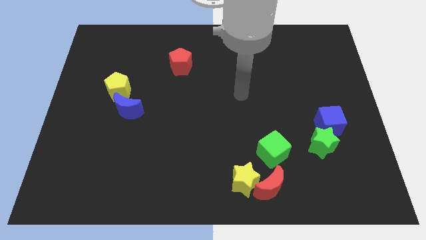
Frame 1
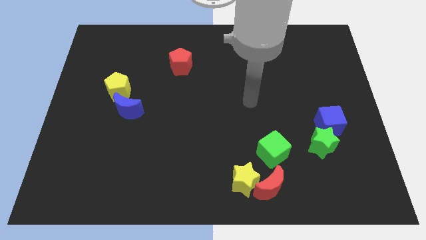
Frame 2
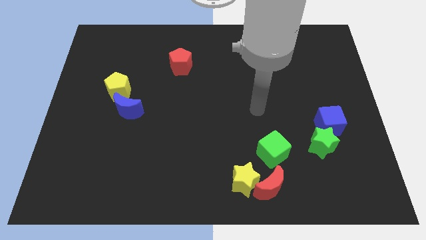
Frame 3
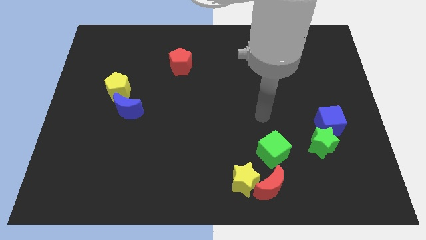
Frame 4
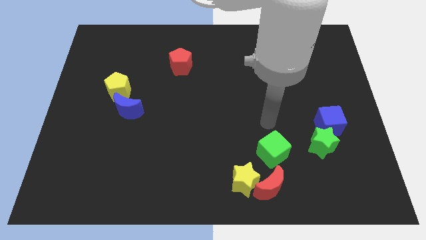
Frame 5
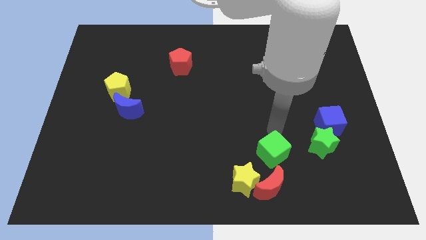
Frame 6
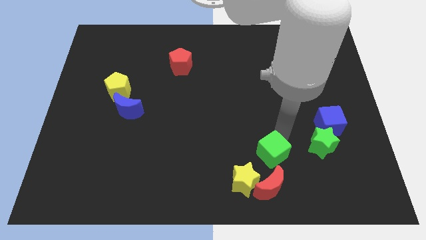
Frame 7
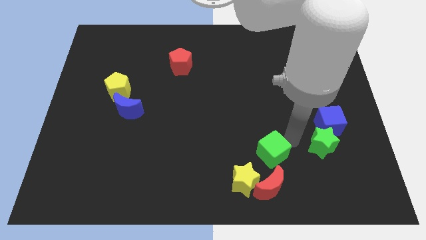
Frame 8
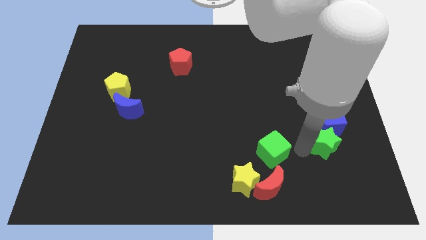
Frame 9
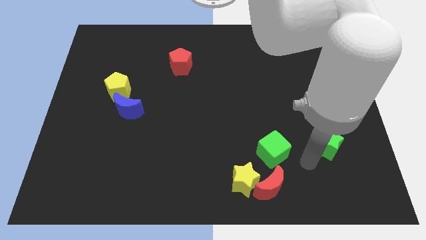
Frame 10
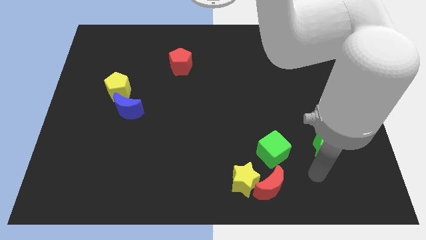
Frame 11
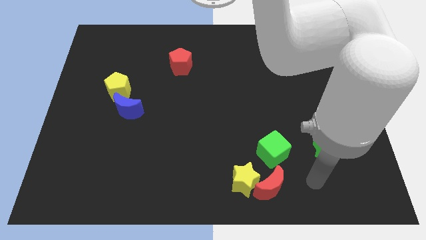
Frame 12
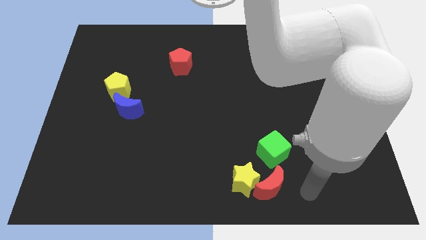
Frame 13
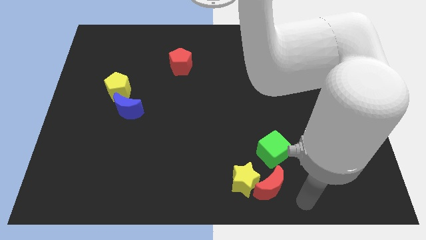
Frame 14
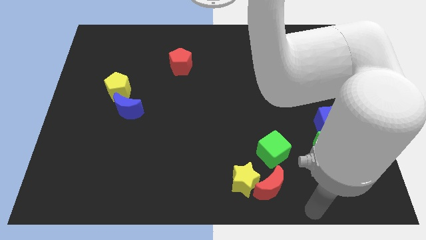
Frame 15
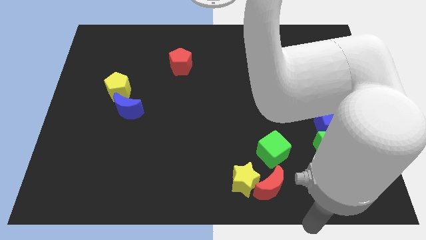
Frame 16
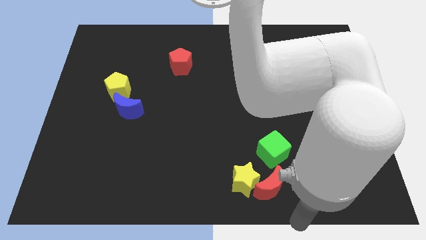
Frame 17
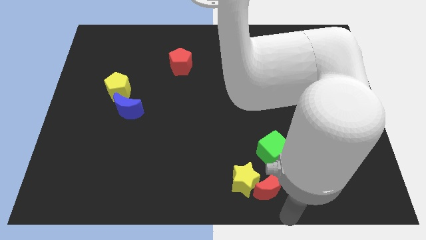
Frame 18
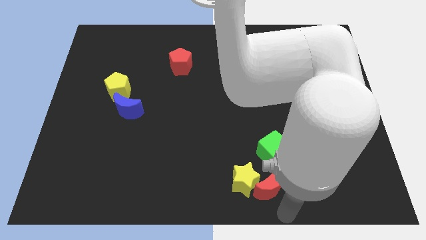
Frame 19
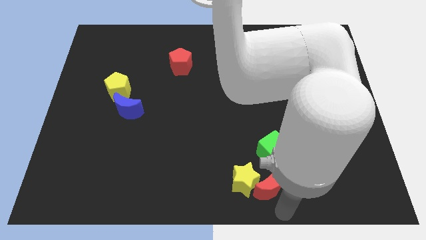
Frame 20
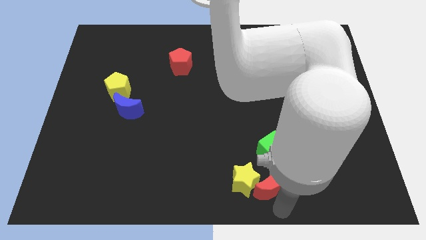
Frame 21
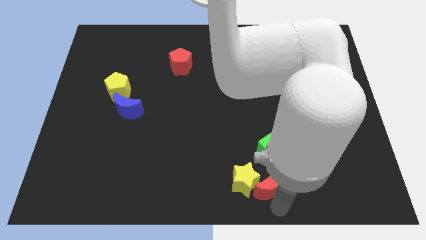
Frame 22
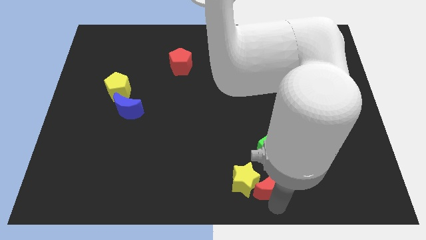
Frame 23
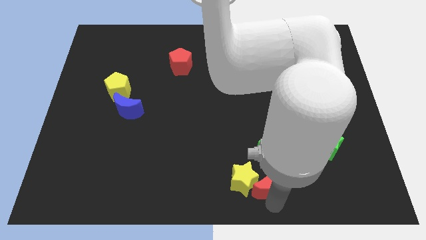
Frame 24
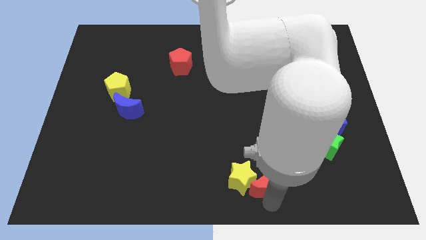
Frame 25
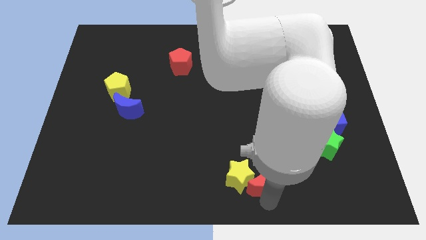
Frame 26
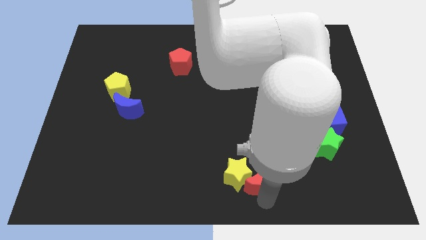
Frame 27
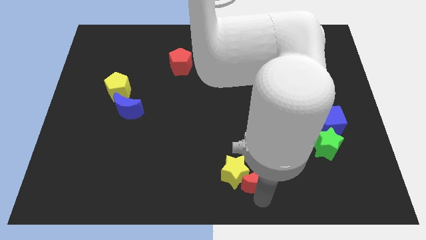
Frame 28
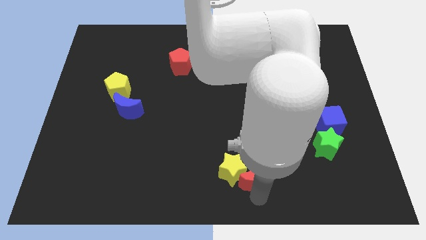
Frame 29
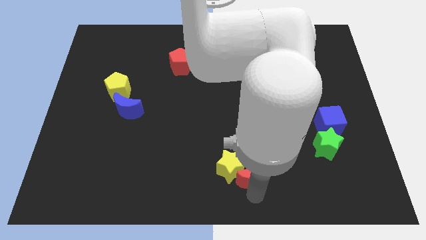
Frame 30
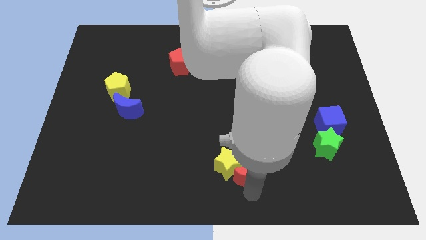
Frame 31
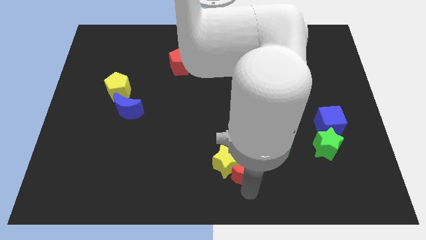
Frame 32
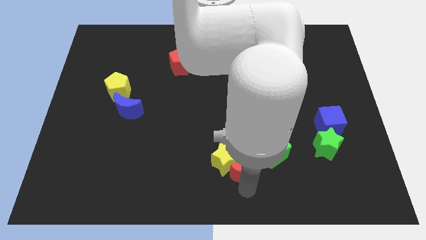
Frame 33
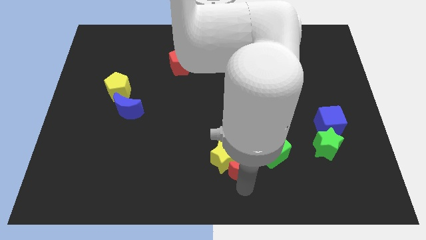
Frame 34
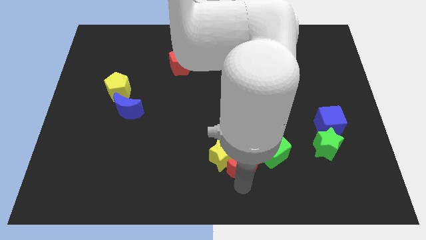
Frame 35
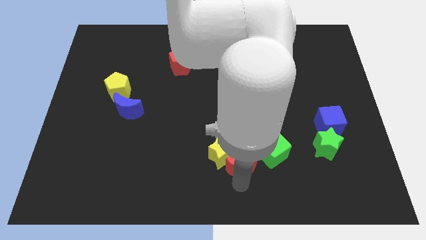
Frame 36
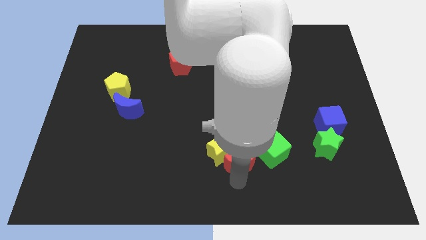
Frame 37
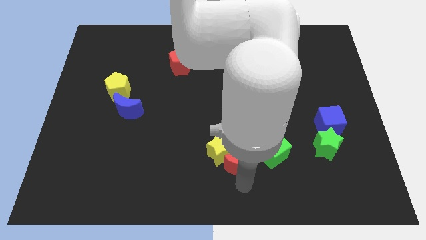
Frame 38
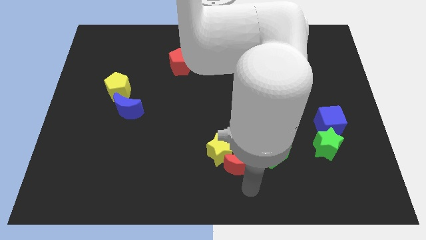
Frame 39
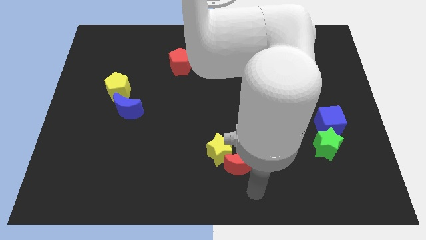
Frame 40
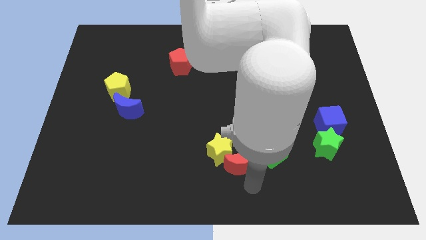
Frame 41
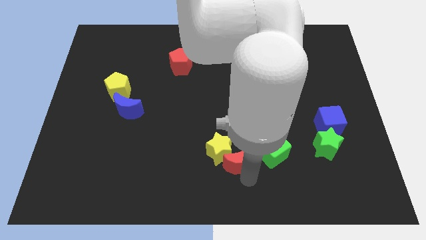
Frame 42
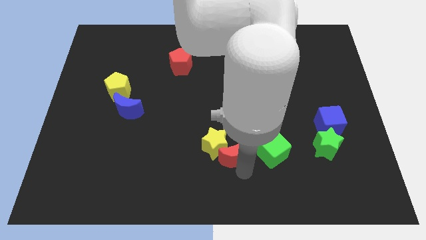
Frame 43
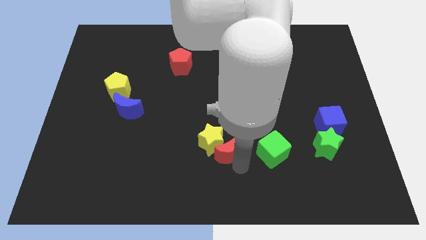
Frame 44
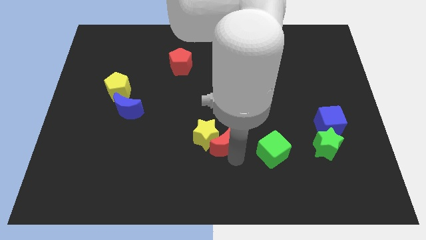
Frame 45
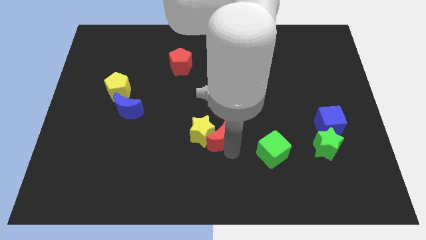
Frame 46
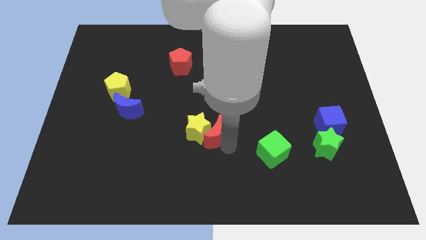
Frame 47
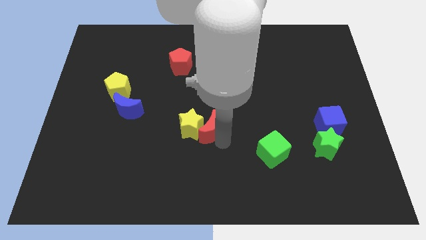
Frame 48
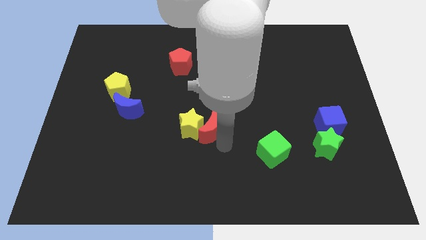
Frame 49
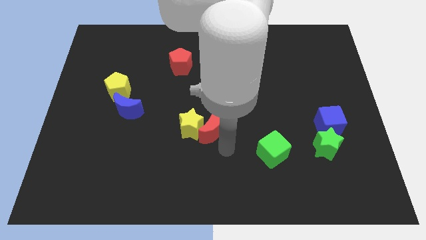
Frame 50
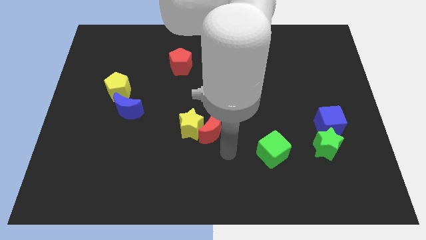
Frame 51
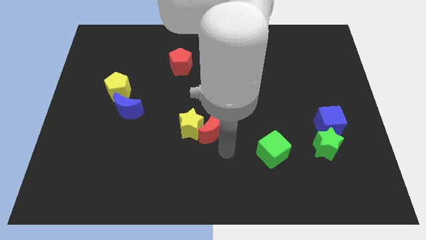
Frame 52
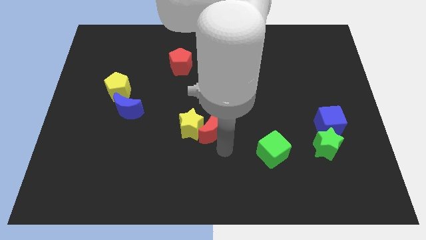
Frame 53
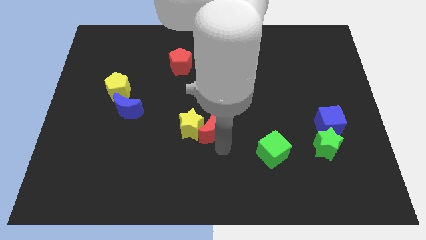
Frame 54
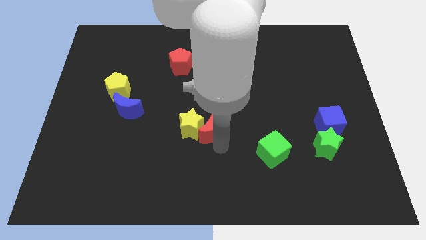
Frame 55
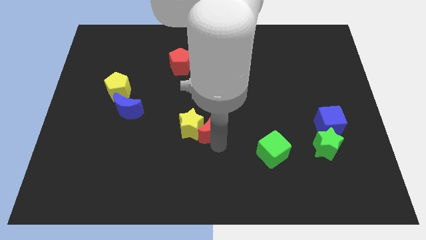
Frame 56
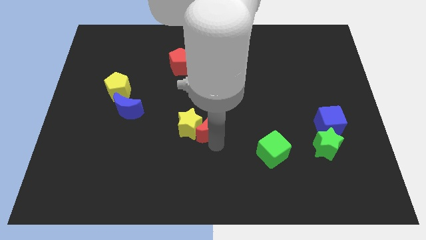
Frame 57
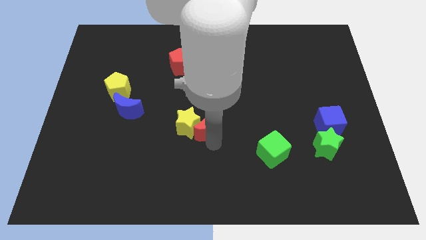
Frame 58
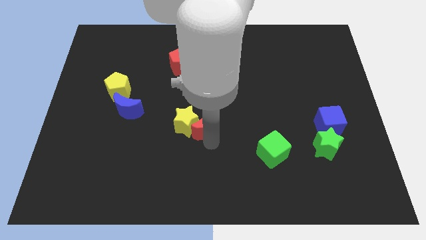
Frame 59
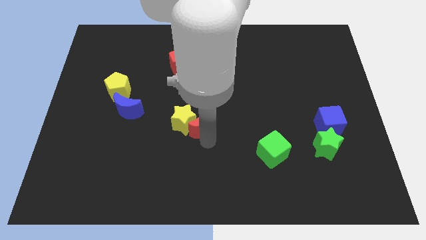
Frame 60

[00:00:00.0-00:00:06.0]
move the red moon up and left diagonally

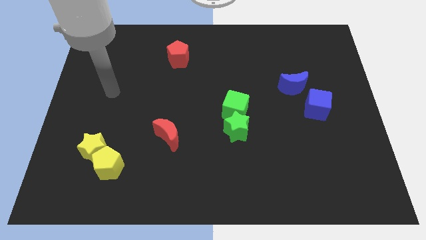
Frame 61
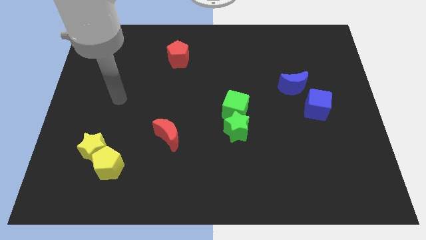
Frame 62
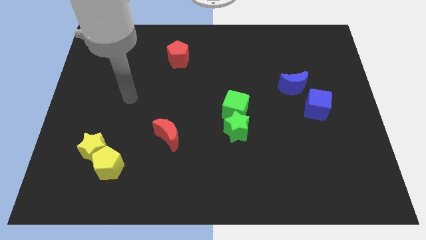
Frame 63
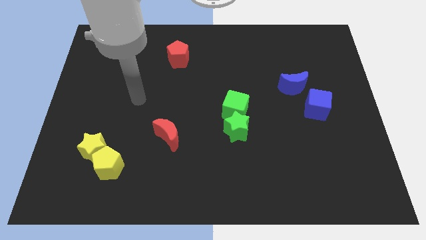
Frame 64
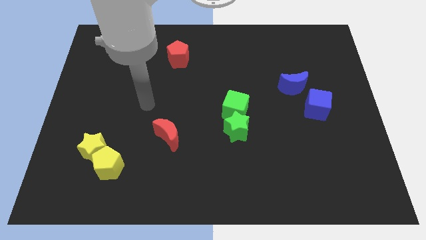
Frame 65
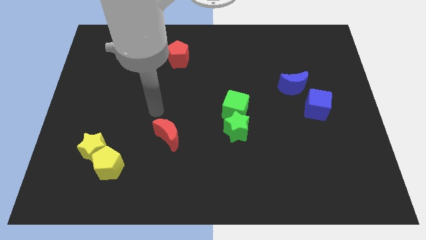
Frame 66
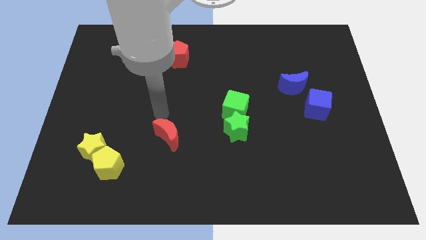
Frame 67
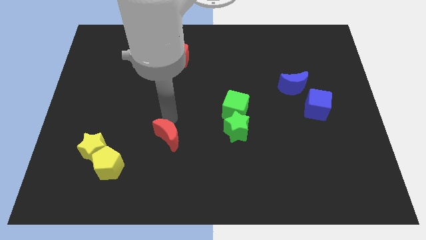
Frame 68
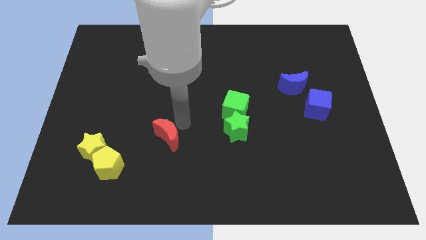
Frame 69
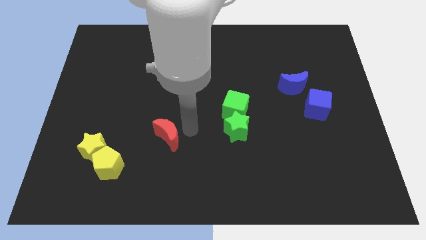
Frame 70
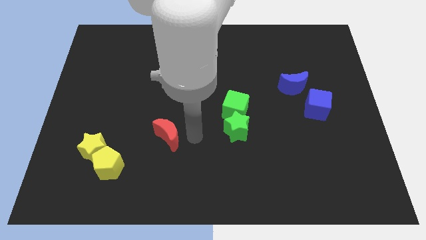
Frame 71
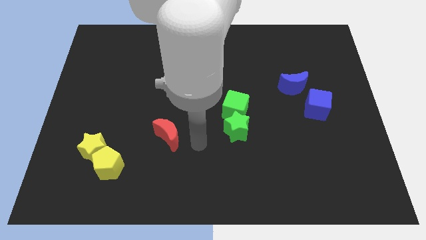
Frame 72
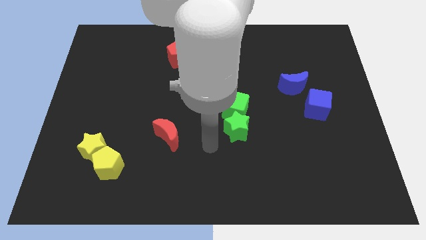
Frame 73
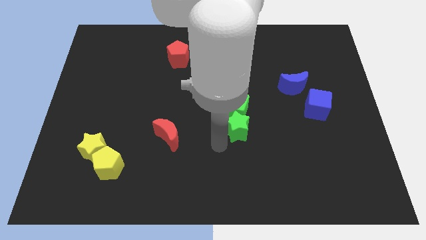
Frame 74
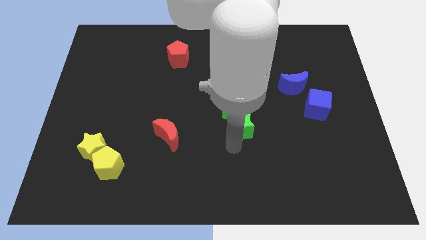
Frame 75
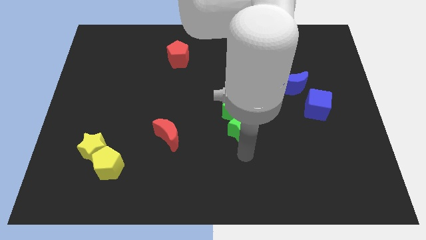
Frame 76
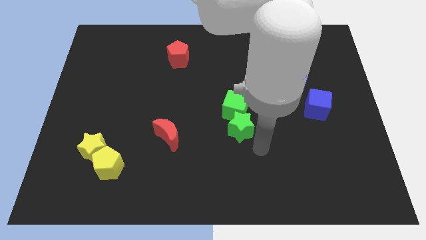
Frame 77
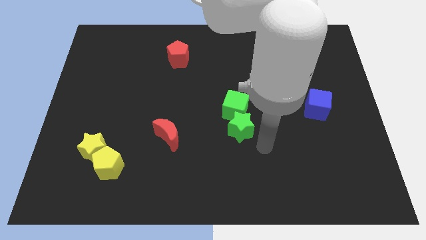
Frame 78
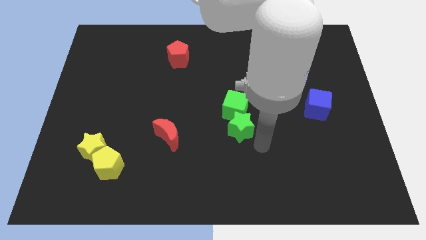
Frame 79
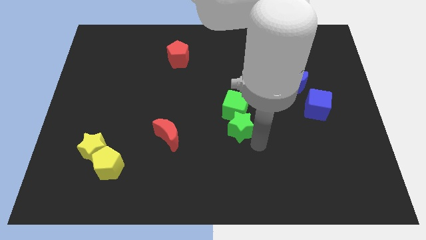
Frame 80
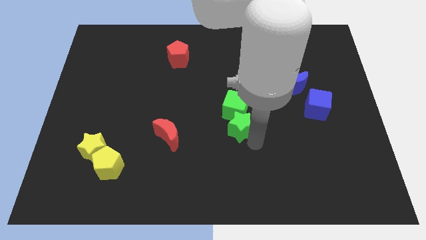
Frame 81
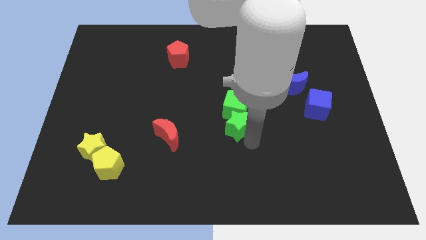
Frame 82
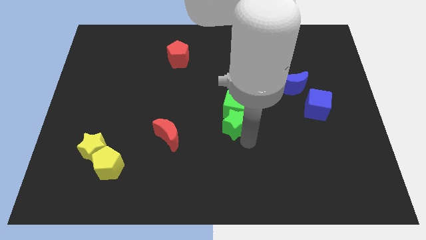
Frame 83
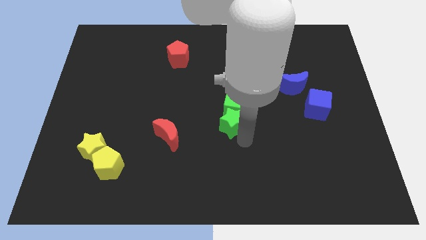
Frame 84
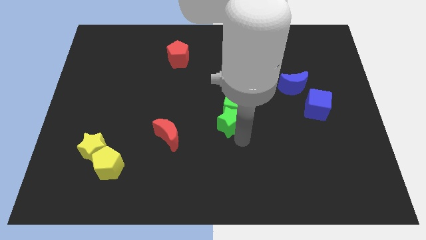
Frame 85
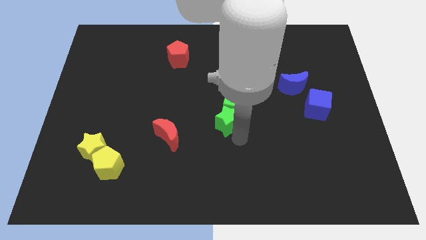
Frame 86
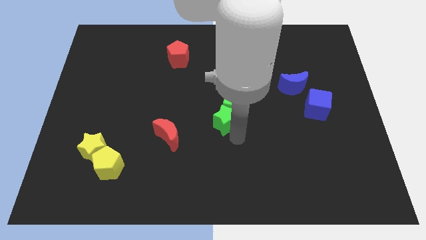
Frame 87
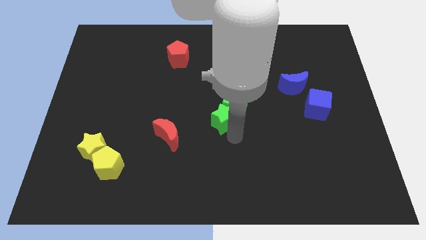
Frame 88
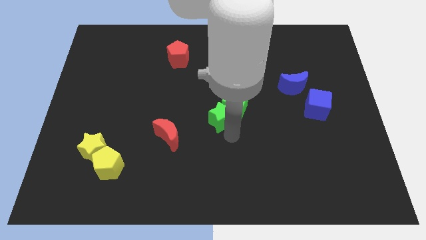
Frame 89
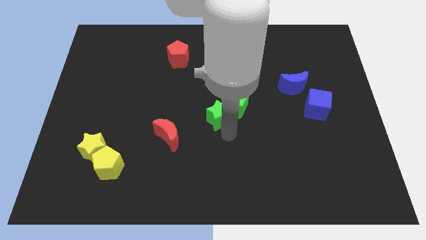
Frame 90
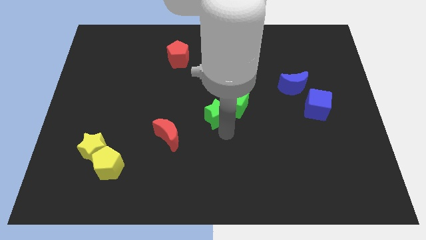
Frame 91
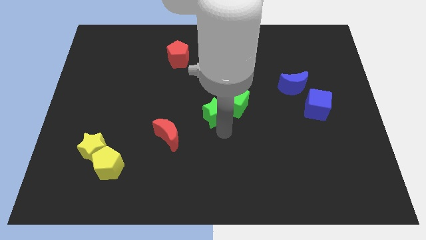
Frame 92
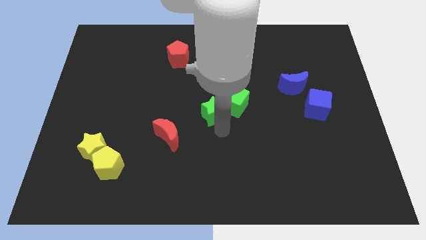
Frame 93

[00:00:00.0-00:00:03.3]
slide the green star diagonally up and to the left somewhat
